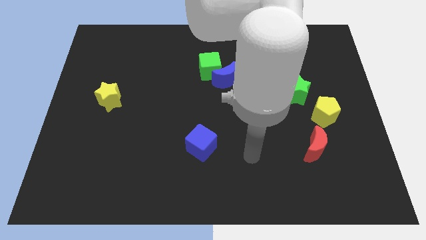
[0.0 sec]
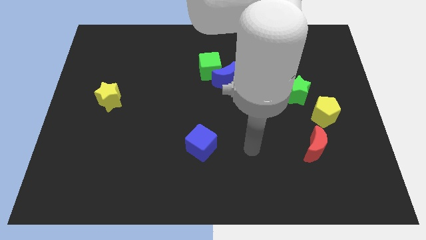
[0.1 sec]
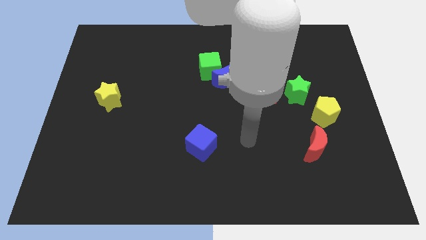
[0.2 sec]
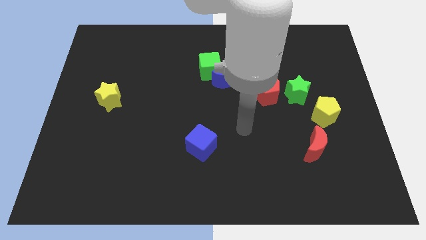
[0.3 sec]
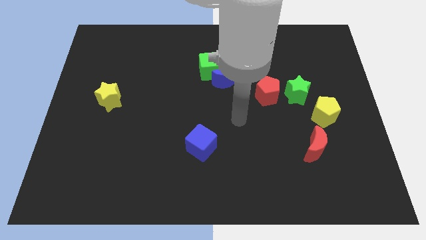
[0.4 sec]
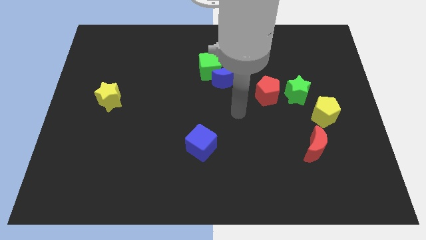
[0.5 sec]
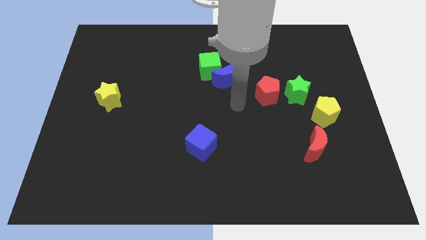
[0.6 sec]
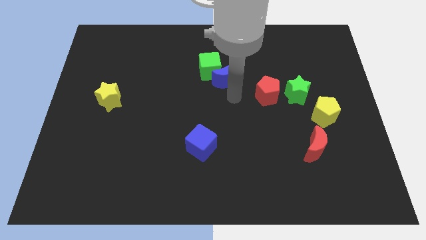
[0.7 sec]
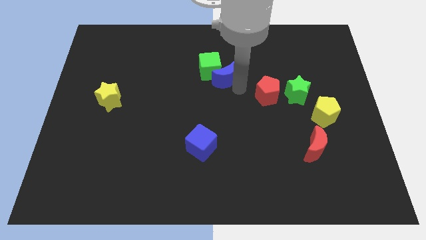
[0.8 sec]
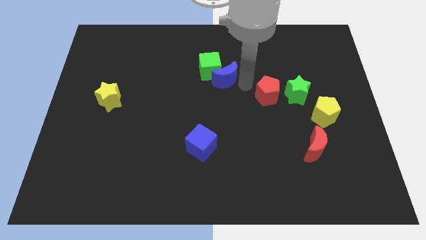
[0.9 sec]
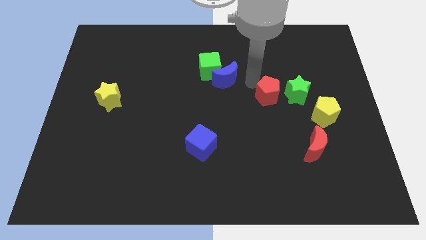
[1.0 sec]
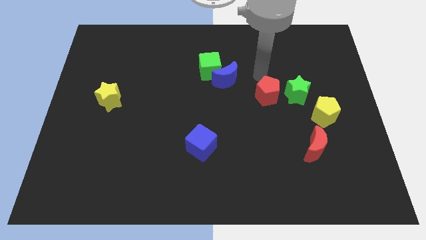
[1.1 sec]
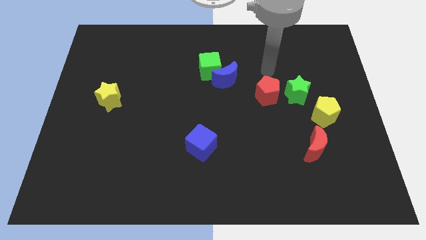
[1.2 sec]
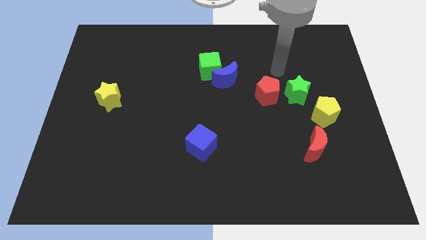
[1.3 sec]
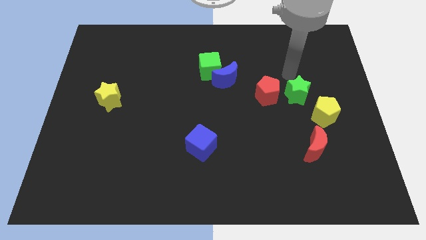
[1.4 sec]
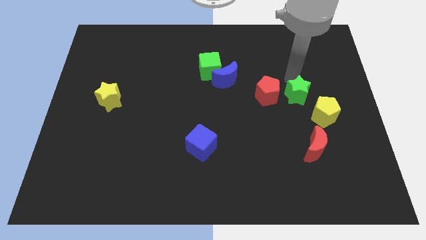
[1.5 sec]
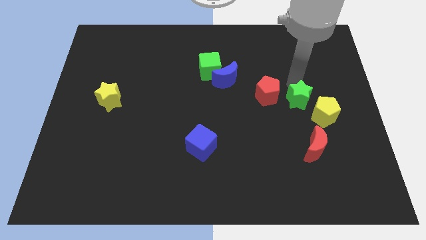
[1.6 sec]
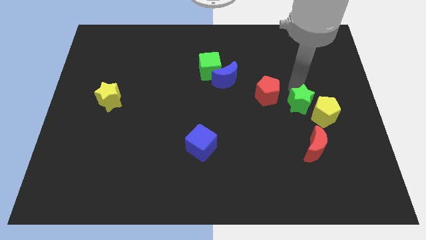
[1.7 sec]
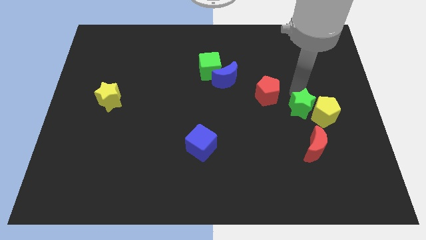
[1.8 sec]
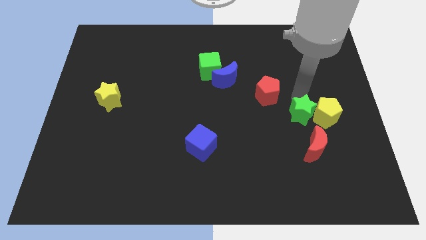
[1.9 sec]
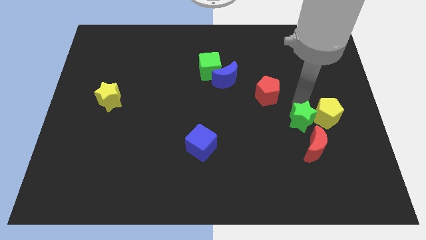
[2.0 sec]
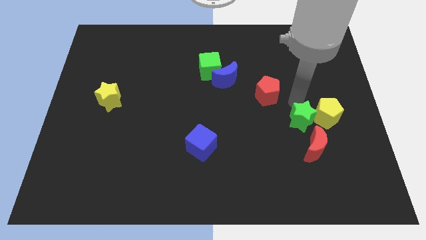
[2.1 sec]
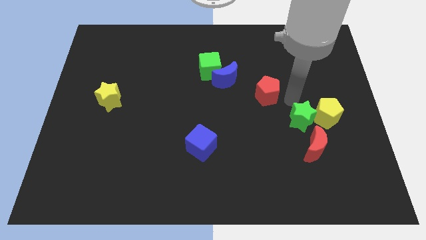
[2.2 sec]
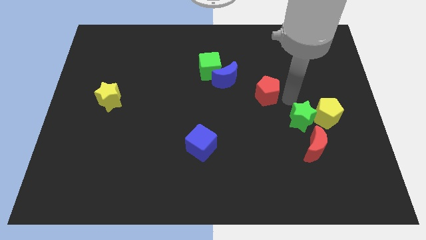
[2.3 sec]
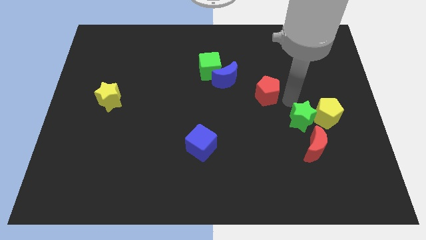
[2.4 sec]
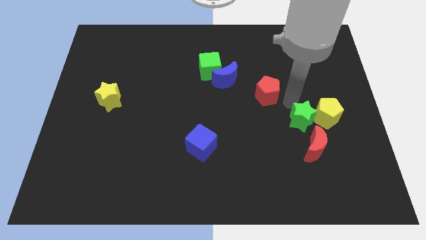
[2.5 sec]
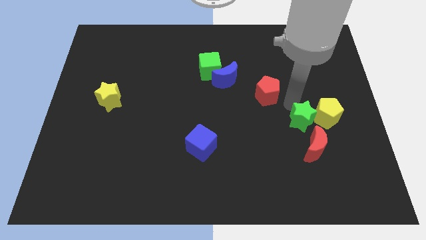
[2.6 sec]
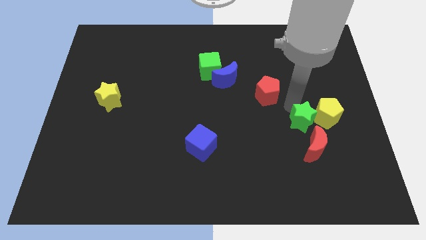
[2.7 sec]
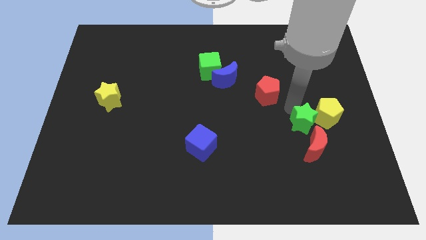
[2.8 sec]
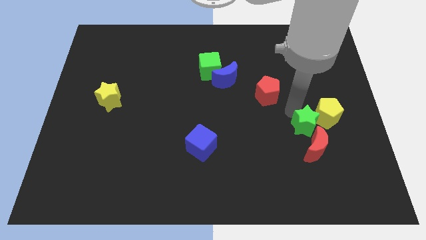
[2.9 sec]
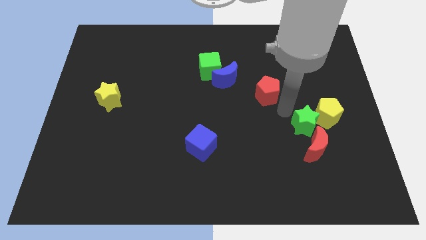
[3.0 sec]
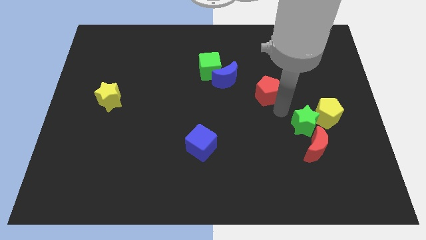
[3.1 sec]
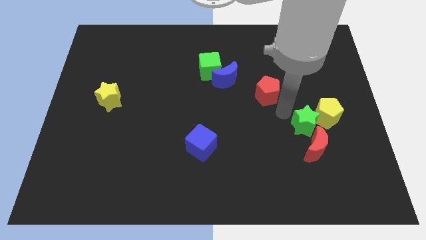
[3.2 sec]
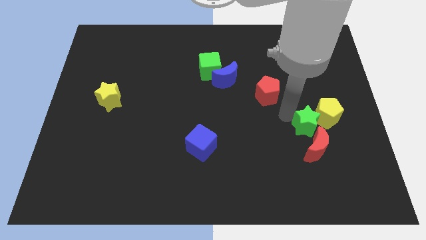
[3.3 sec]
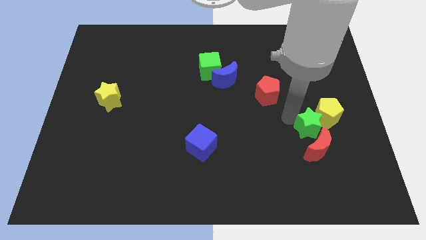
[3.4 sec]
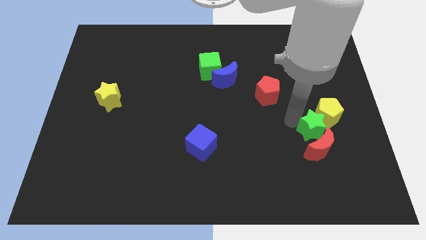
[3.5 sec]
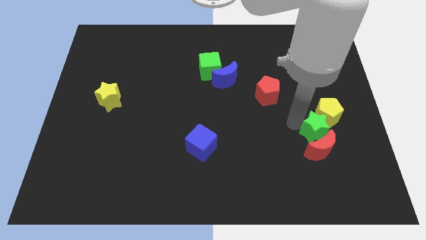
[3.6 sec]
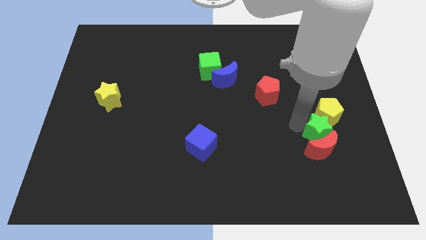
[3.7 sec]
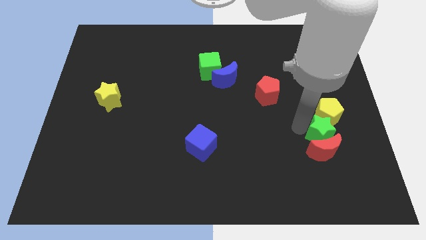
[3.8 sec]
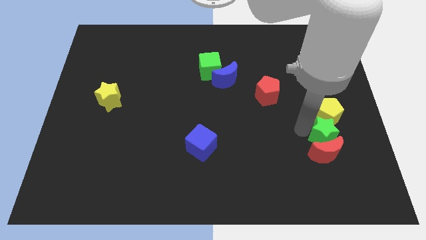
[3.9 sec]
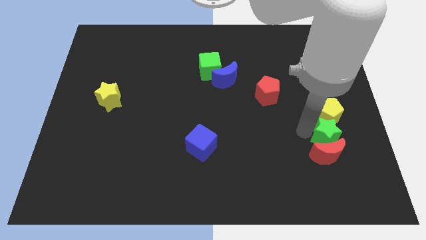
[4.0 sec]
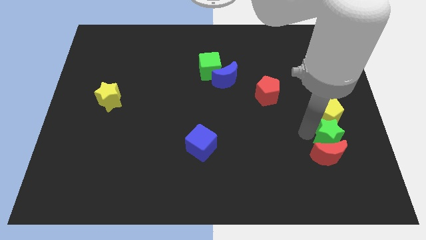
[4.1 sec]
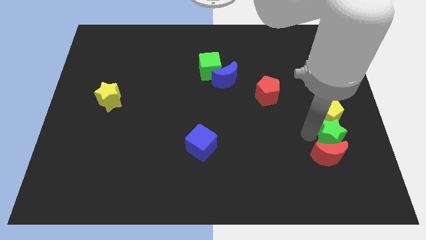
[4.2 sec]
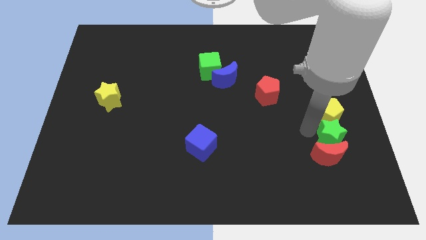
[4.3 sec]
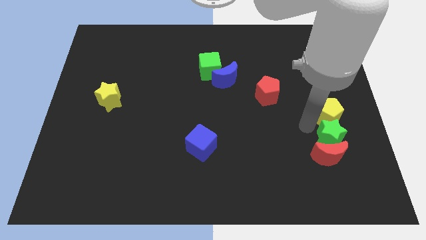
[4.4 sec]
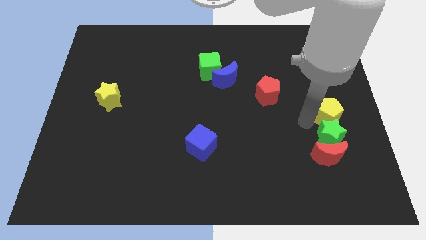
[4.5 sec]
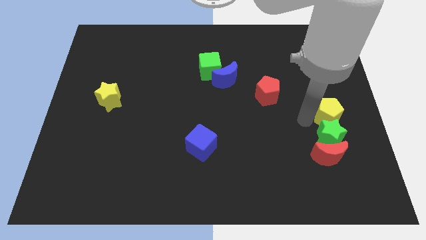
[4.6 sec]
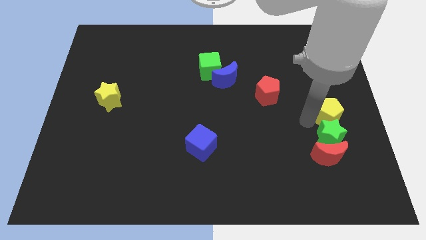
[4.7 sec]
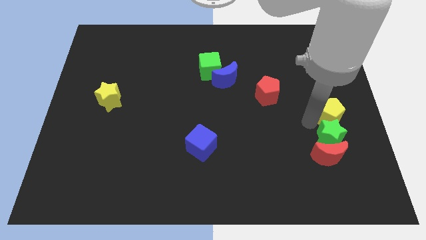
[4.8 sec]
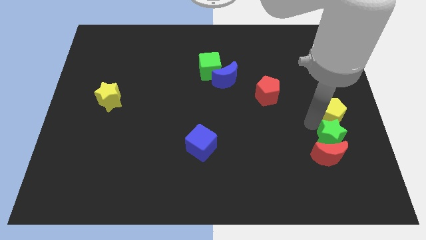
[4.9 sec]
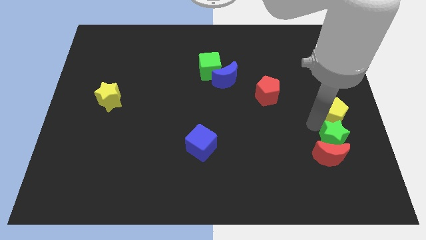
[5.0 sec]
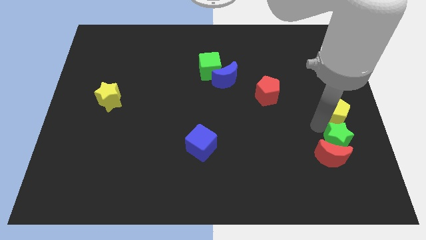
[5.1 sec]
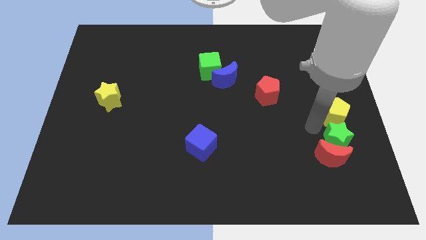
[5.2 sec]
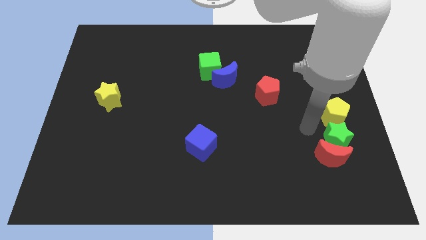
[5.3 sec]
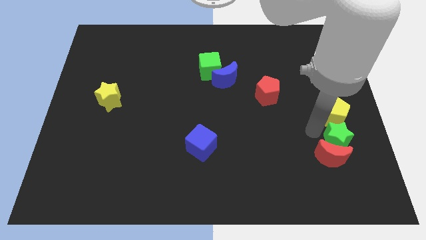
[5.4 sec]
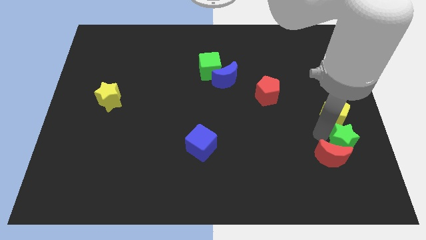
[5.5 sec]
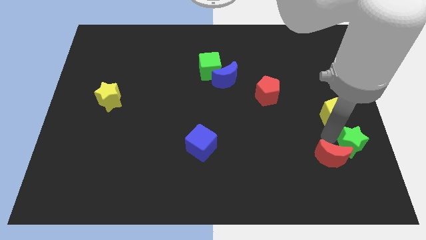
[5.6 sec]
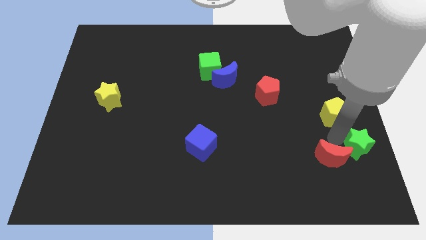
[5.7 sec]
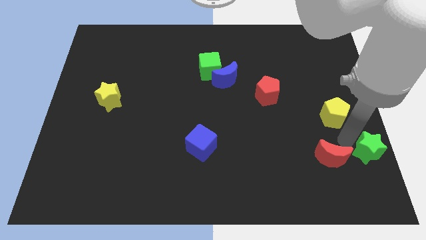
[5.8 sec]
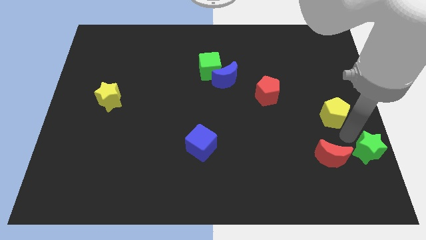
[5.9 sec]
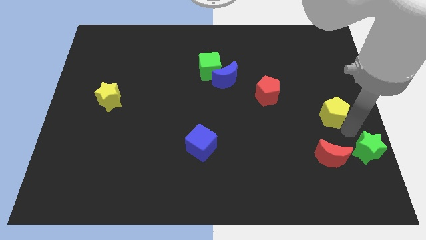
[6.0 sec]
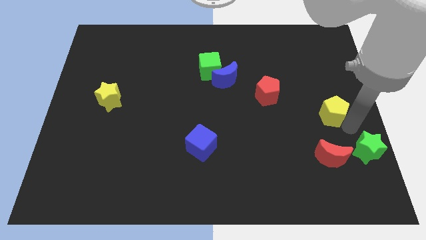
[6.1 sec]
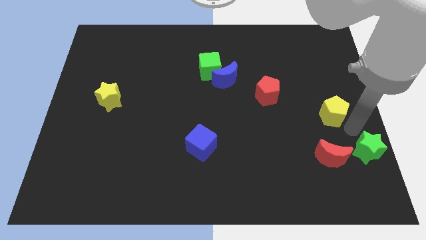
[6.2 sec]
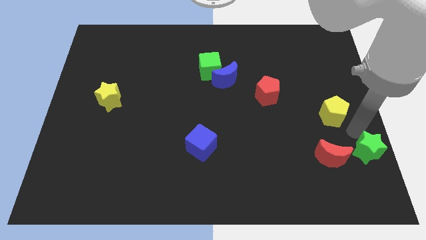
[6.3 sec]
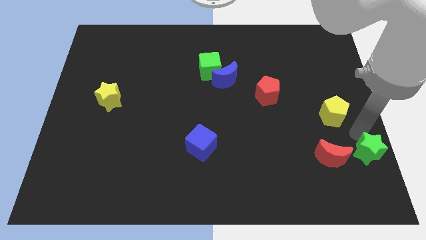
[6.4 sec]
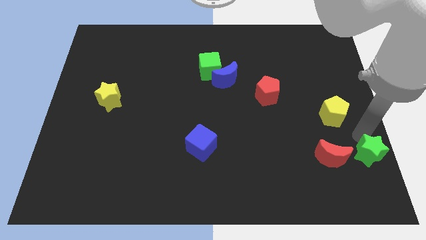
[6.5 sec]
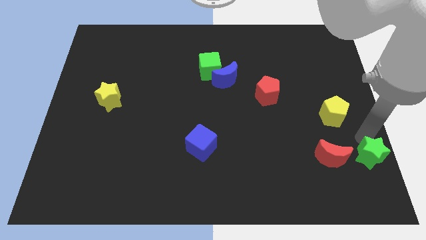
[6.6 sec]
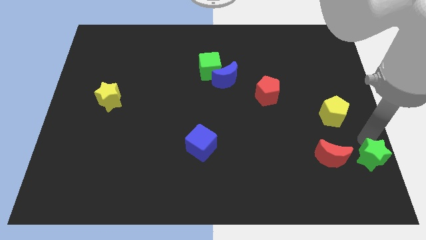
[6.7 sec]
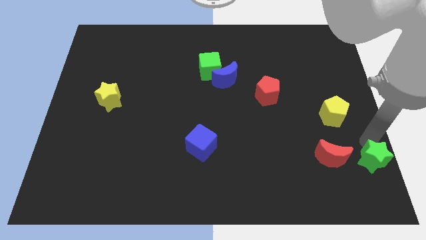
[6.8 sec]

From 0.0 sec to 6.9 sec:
slide the green star to the lower right corner
